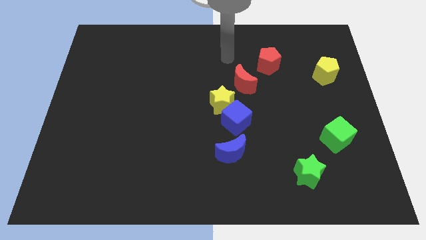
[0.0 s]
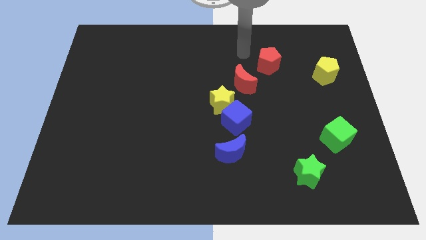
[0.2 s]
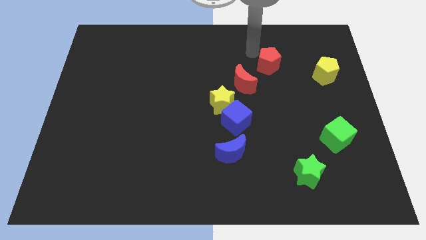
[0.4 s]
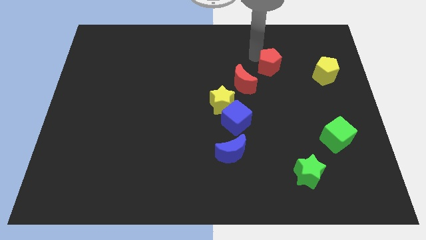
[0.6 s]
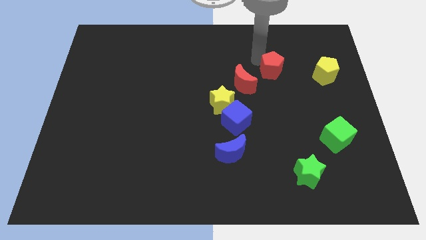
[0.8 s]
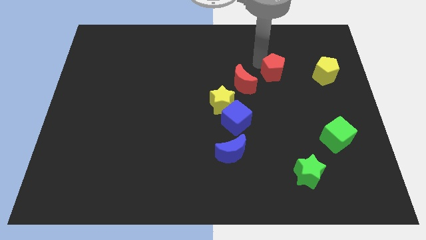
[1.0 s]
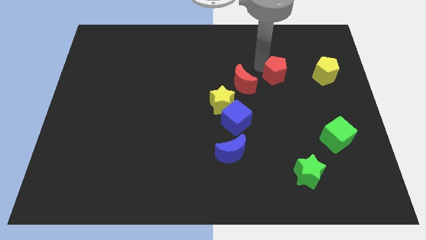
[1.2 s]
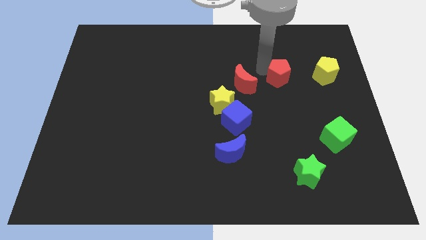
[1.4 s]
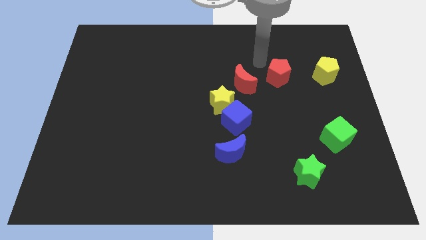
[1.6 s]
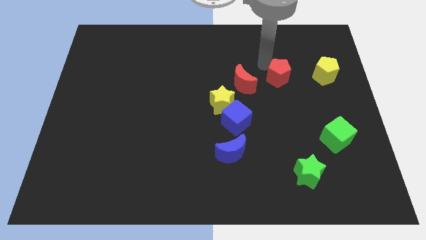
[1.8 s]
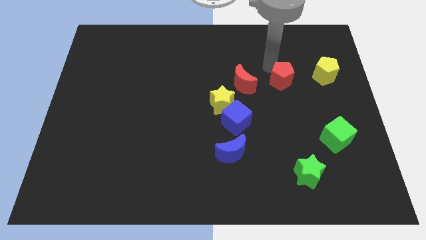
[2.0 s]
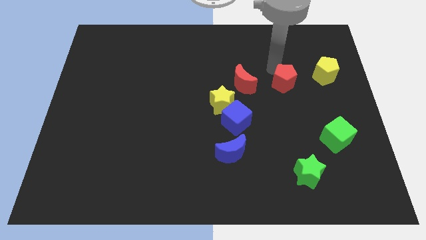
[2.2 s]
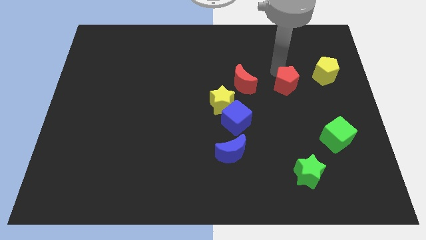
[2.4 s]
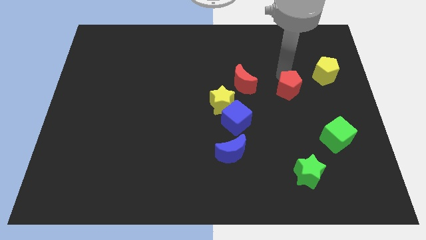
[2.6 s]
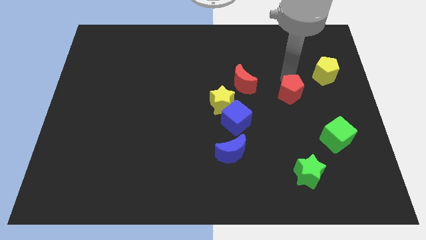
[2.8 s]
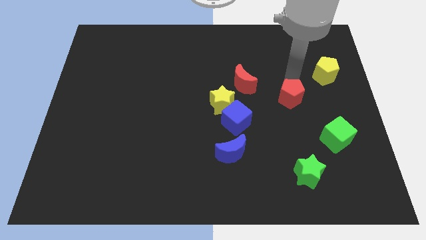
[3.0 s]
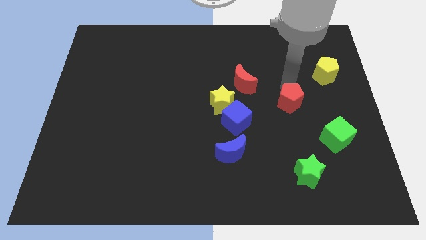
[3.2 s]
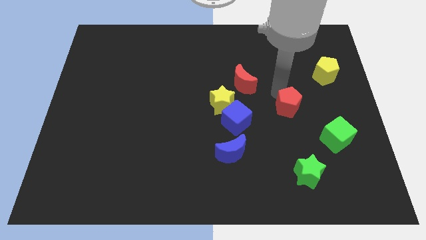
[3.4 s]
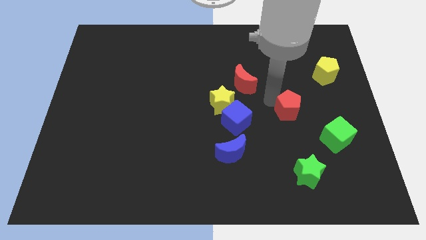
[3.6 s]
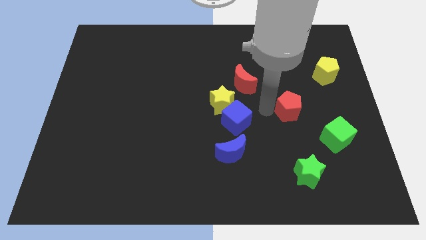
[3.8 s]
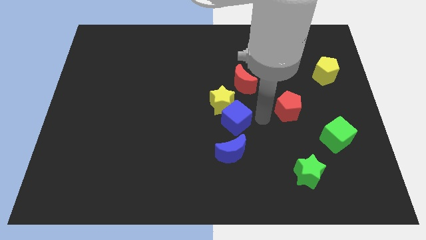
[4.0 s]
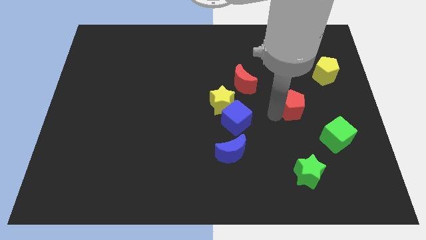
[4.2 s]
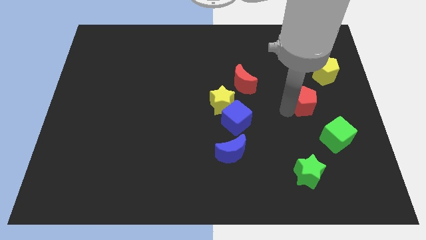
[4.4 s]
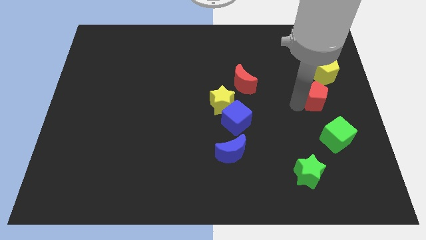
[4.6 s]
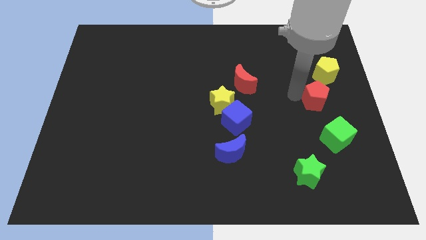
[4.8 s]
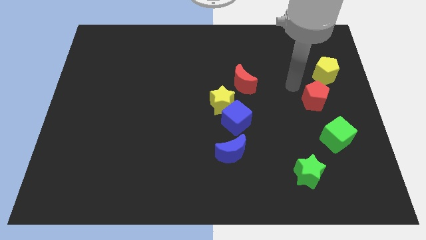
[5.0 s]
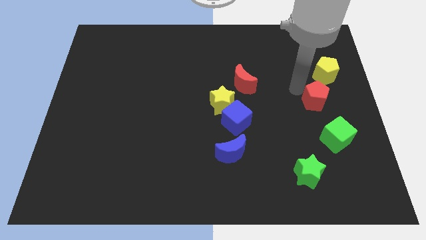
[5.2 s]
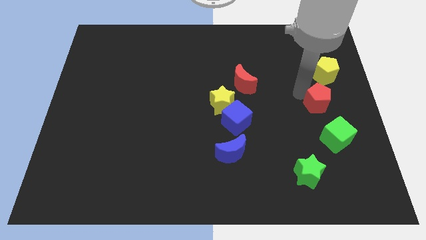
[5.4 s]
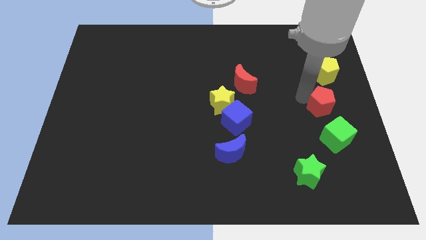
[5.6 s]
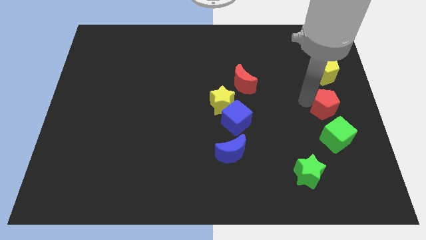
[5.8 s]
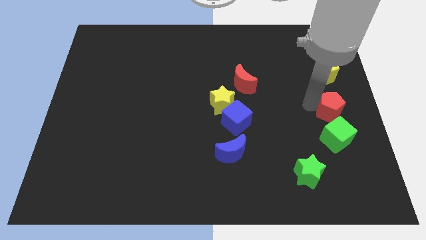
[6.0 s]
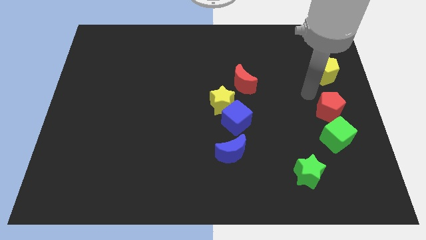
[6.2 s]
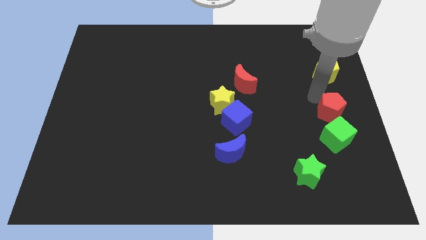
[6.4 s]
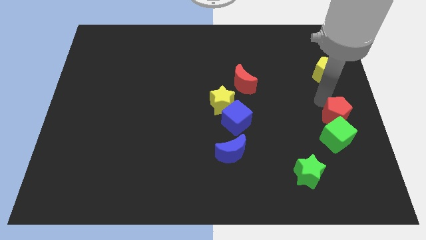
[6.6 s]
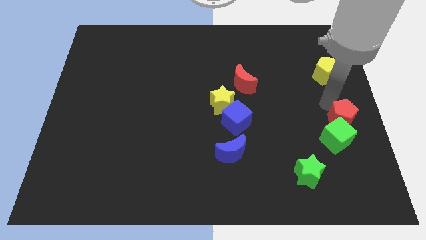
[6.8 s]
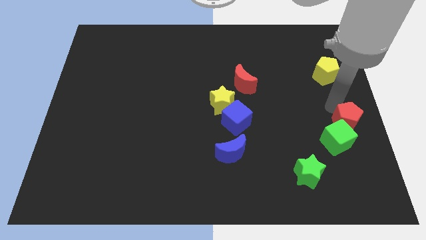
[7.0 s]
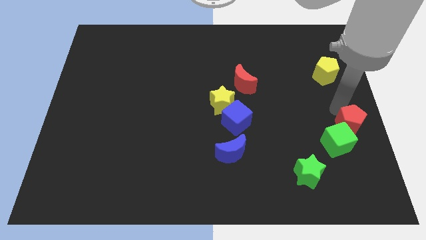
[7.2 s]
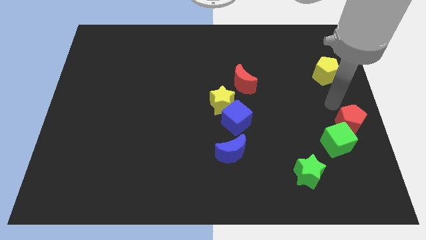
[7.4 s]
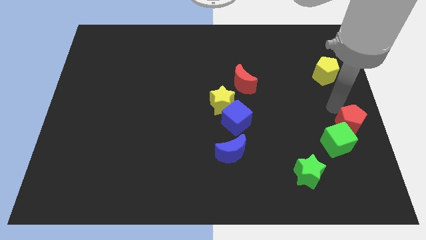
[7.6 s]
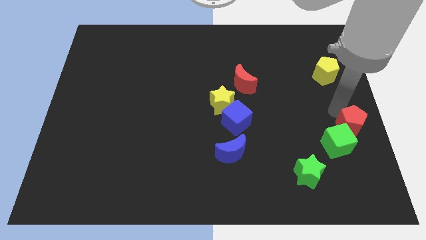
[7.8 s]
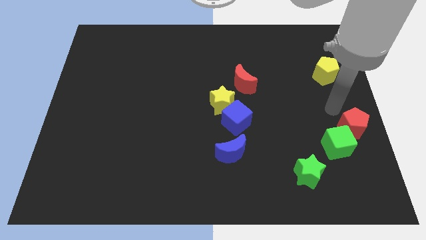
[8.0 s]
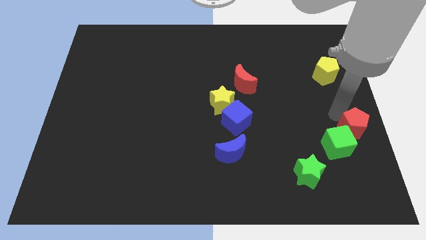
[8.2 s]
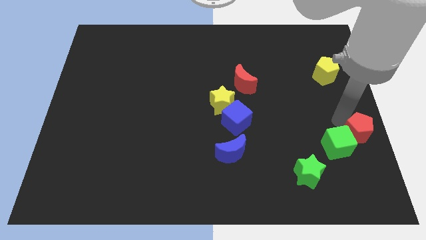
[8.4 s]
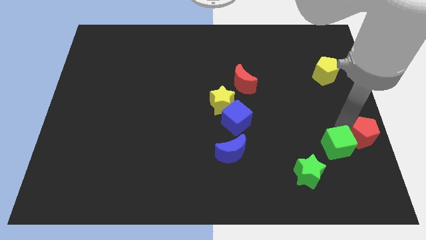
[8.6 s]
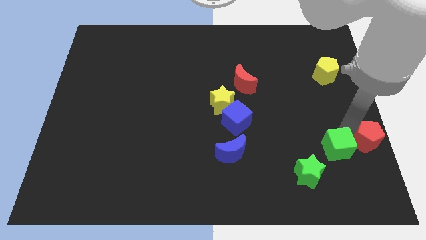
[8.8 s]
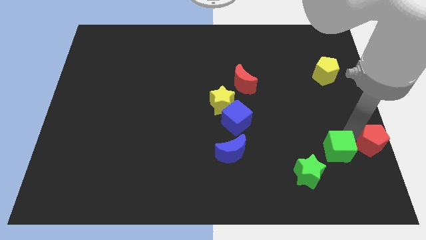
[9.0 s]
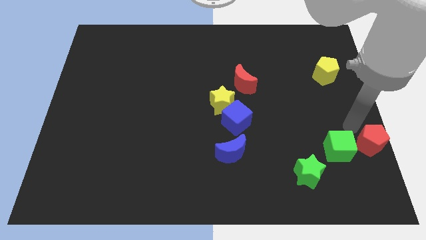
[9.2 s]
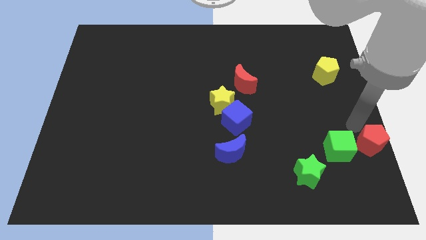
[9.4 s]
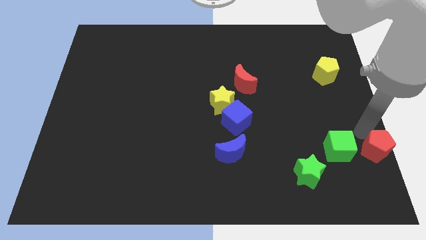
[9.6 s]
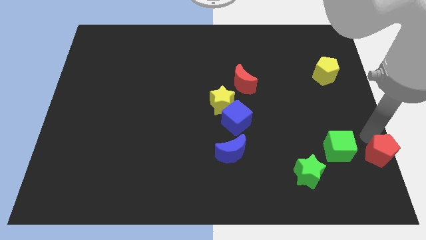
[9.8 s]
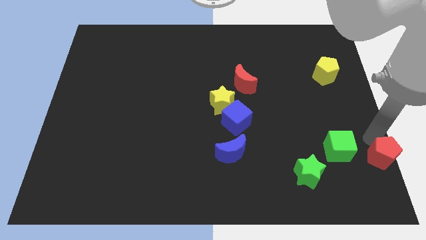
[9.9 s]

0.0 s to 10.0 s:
put the red pentagon to the bottom right

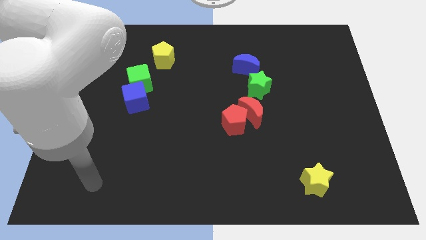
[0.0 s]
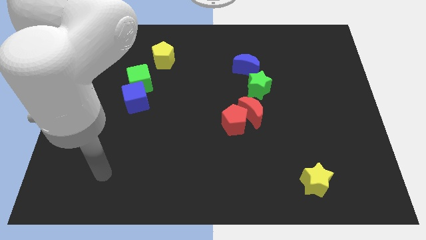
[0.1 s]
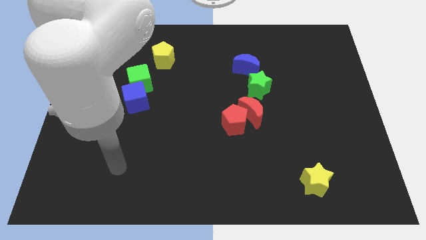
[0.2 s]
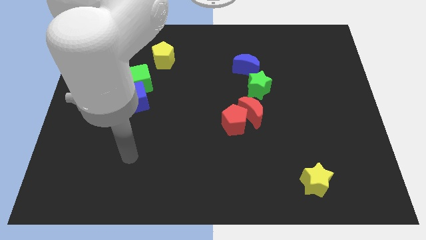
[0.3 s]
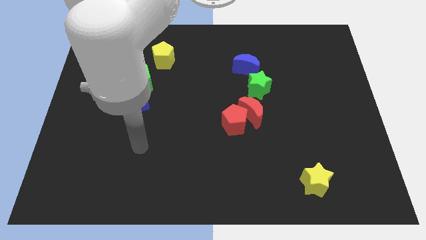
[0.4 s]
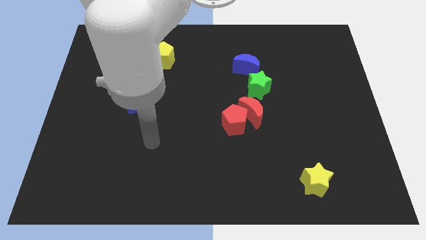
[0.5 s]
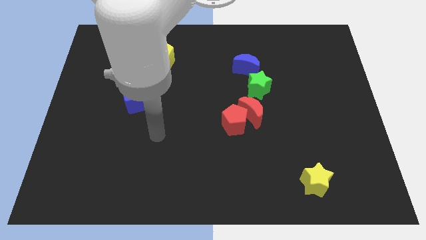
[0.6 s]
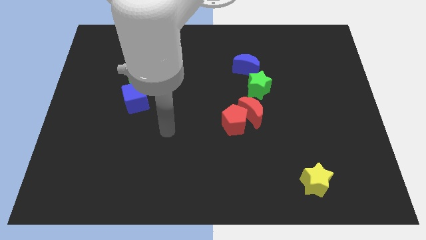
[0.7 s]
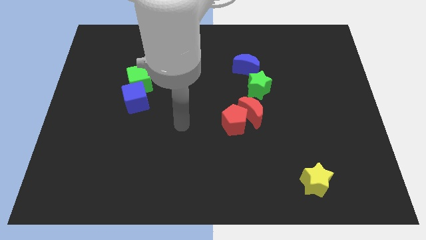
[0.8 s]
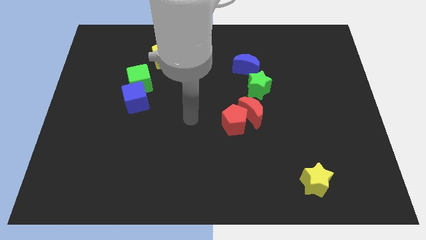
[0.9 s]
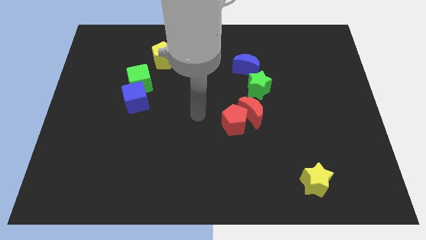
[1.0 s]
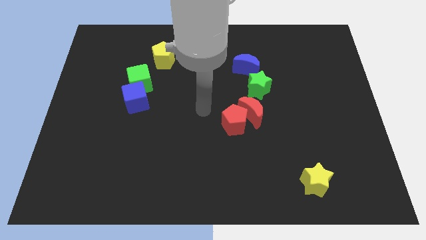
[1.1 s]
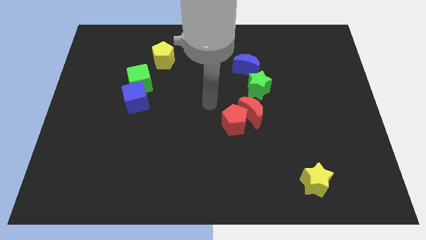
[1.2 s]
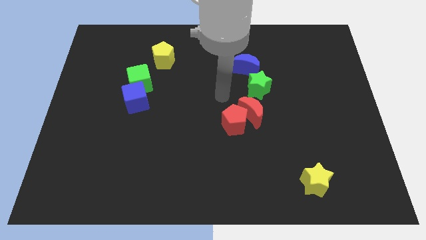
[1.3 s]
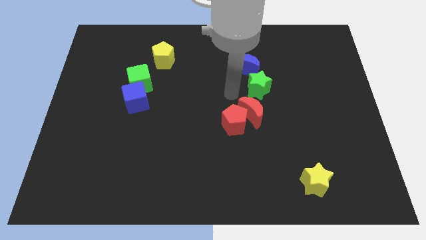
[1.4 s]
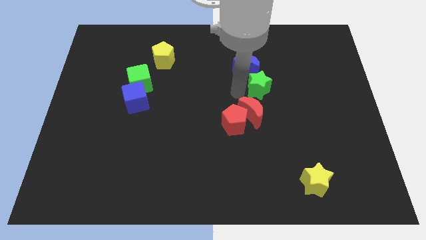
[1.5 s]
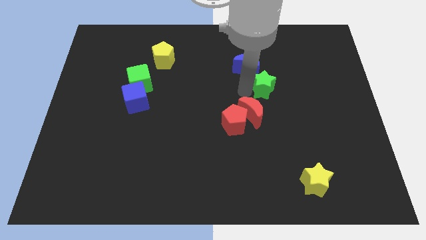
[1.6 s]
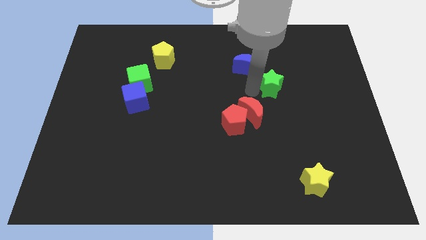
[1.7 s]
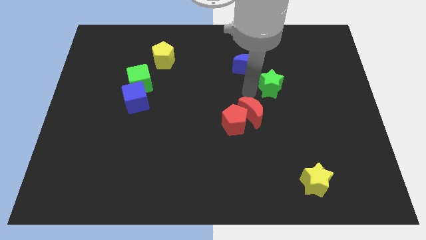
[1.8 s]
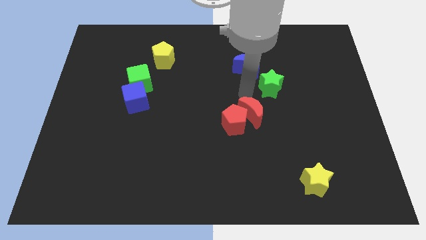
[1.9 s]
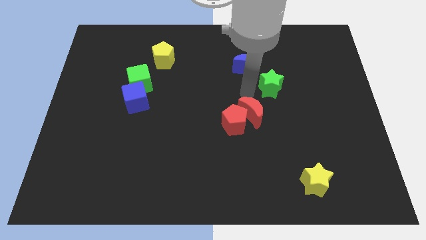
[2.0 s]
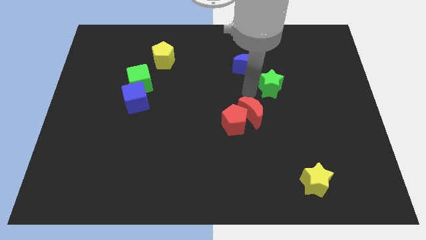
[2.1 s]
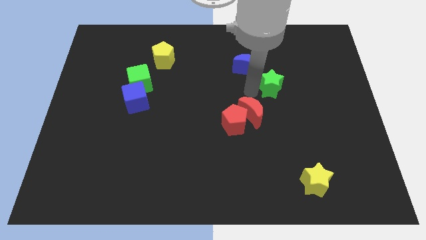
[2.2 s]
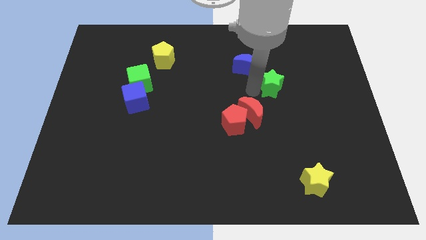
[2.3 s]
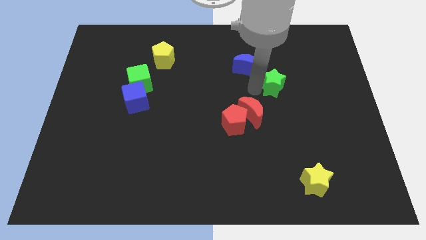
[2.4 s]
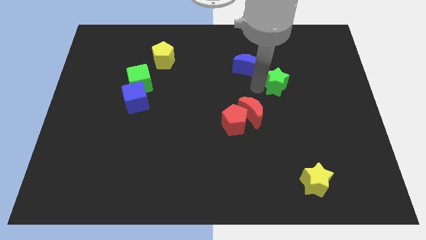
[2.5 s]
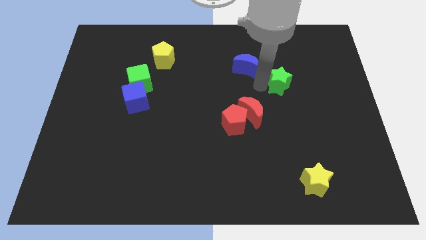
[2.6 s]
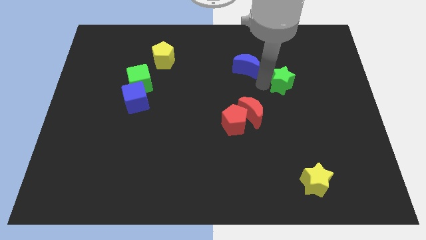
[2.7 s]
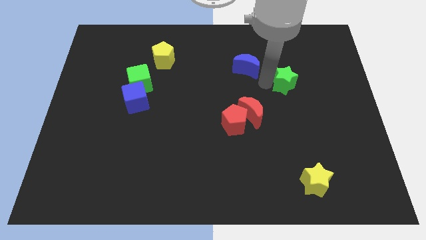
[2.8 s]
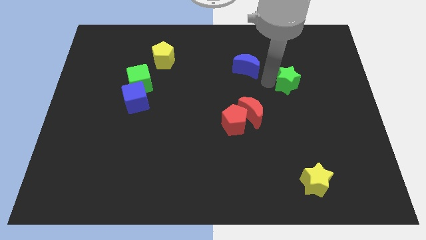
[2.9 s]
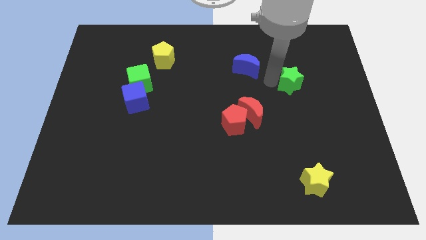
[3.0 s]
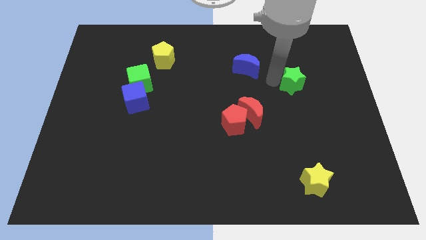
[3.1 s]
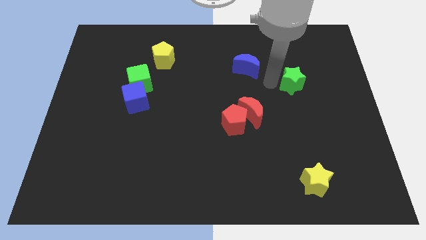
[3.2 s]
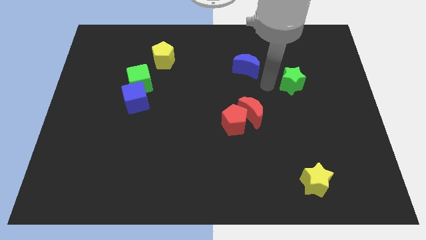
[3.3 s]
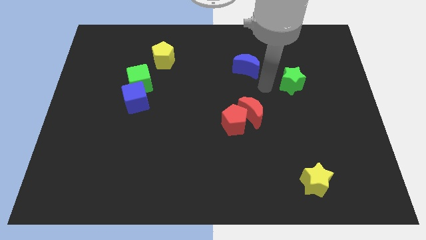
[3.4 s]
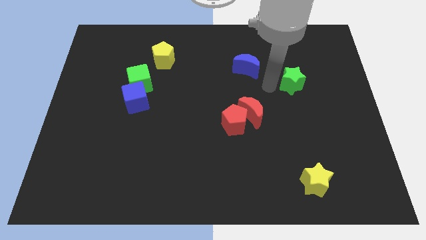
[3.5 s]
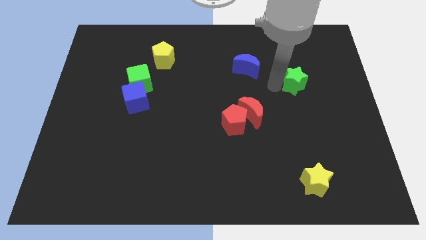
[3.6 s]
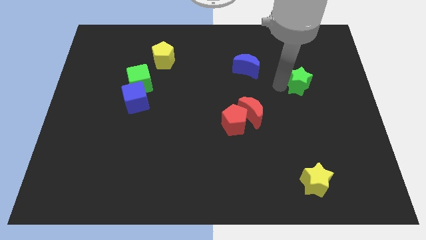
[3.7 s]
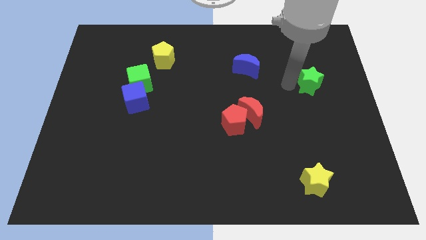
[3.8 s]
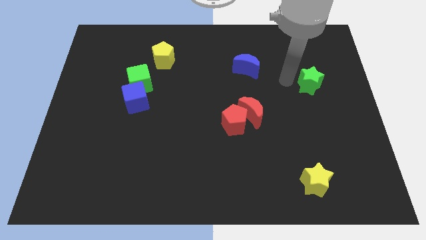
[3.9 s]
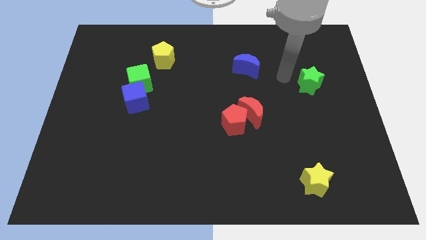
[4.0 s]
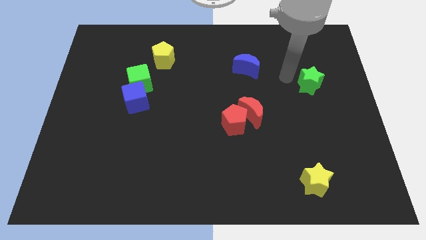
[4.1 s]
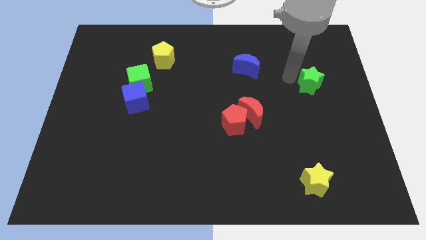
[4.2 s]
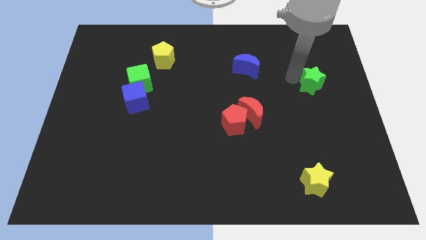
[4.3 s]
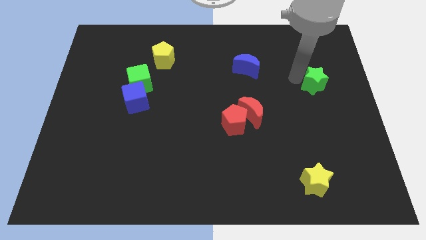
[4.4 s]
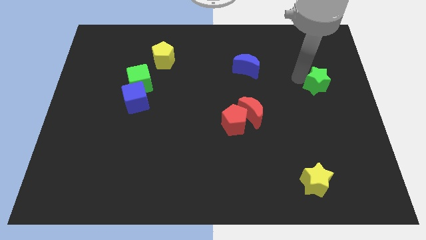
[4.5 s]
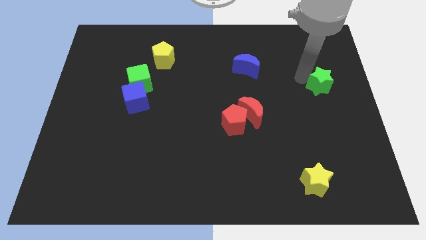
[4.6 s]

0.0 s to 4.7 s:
push the green star to the right side
